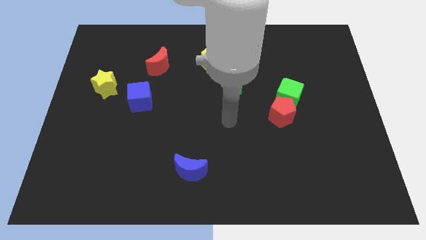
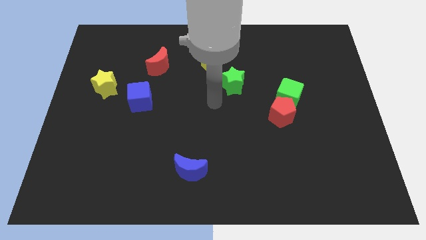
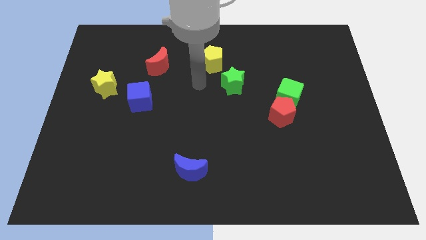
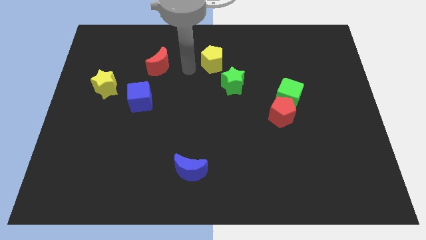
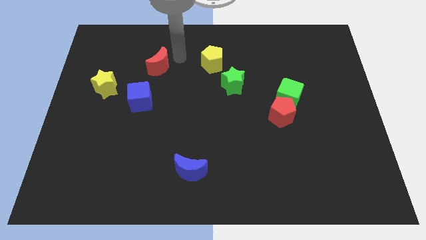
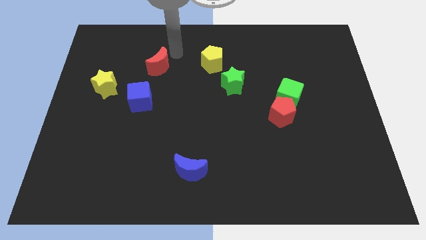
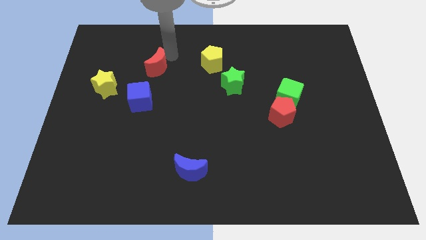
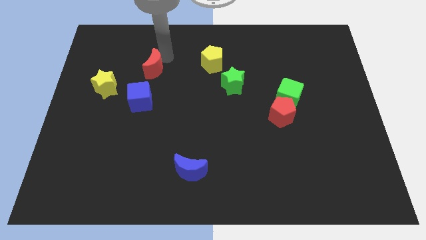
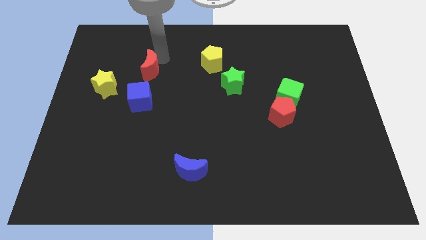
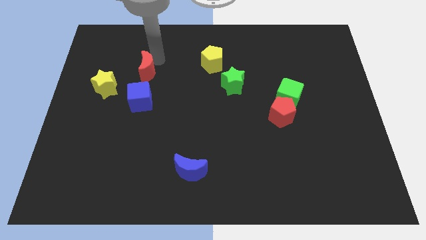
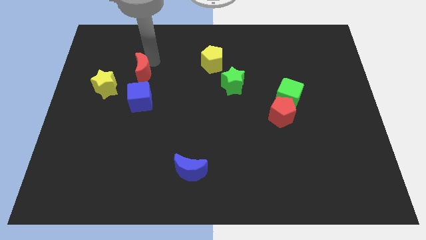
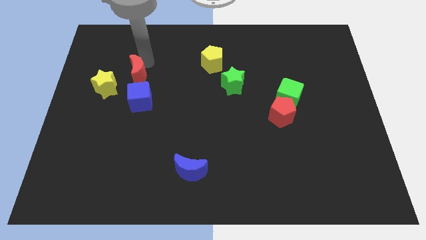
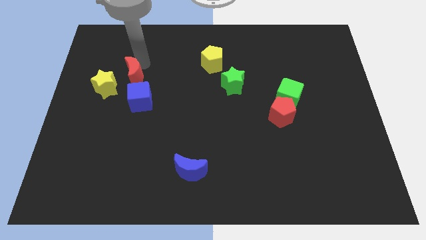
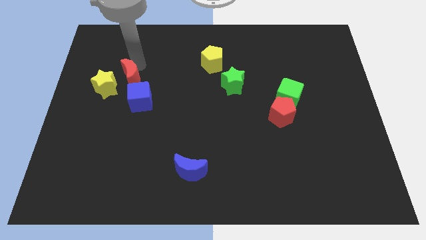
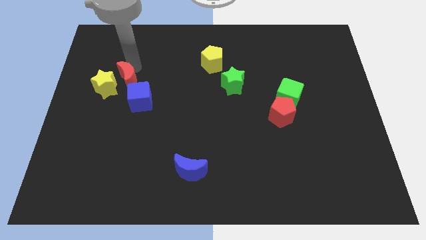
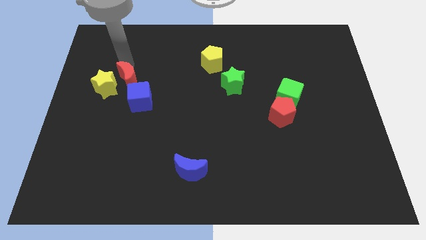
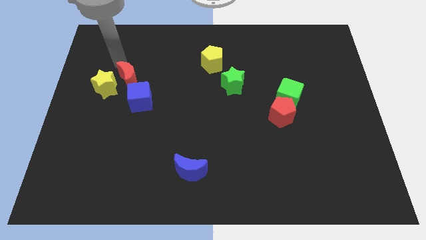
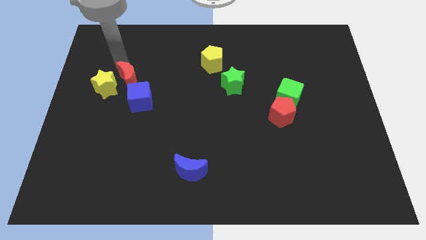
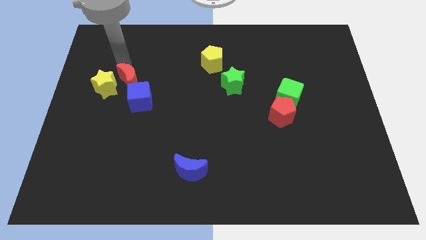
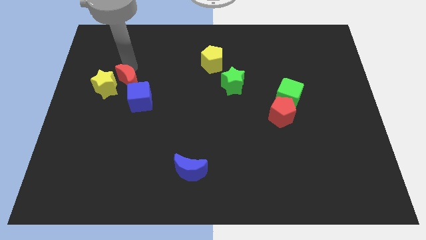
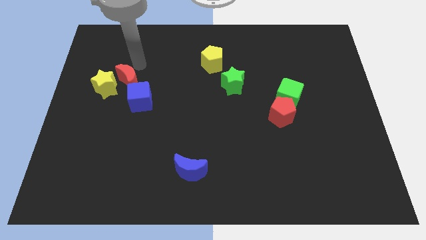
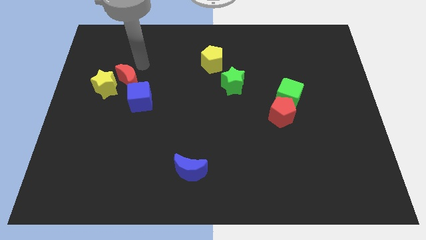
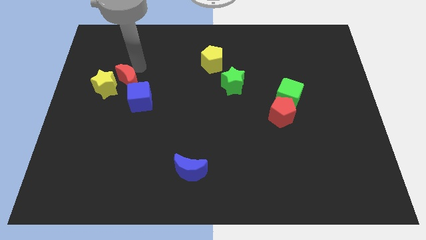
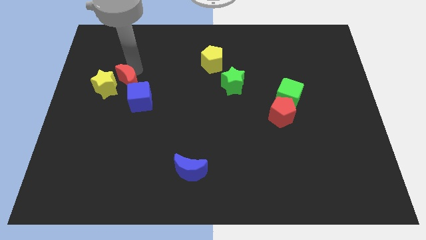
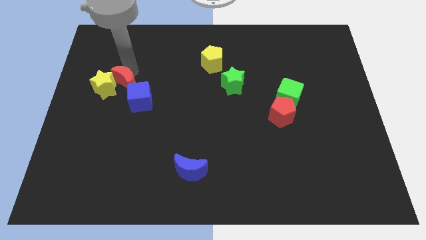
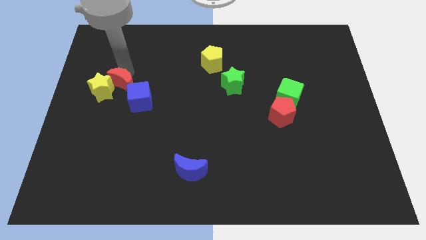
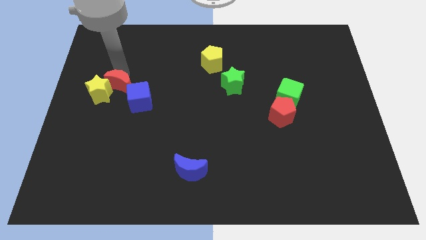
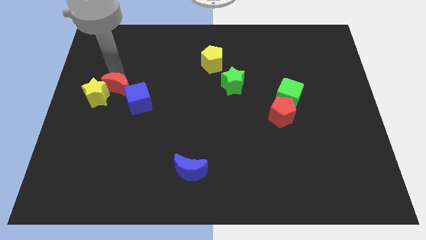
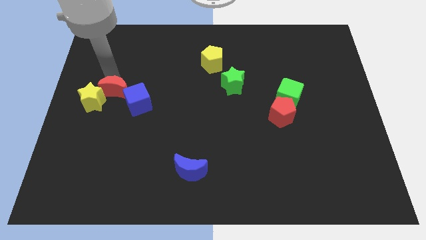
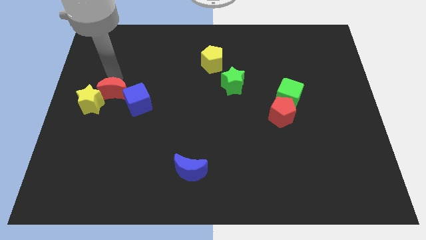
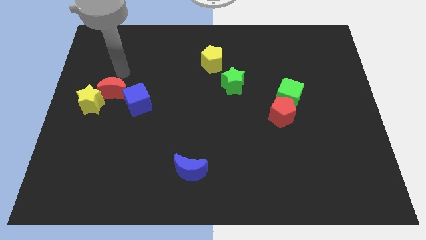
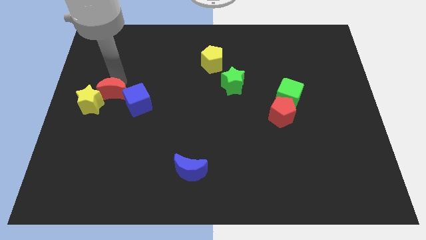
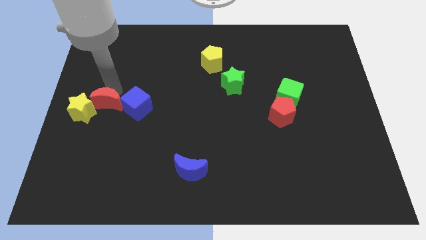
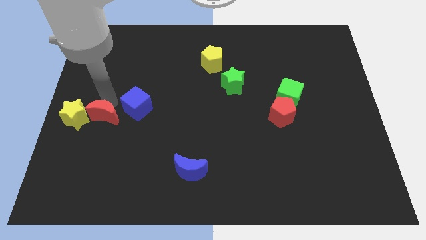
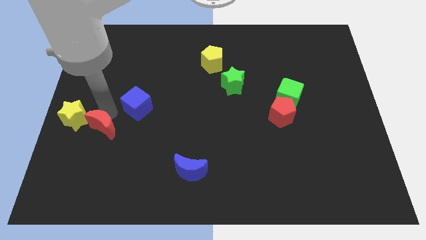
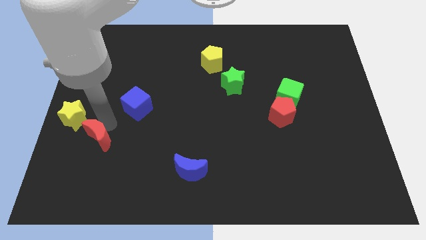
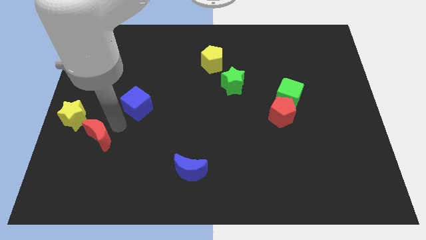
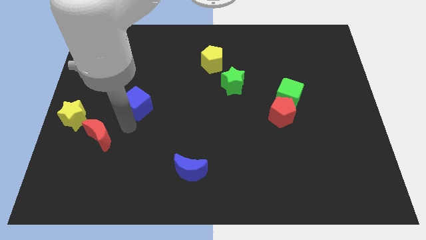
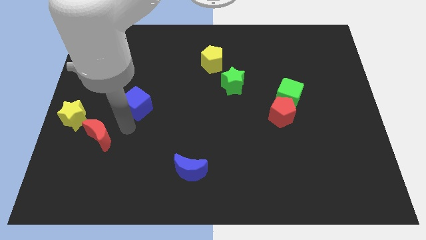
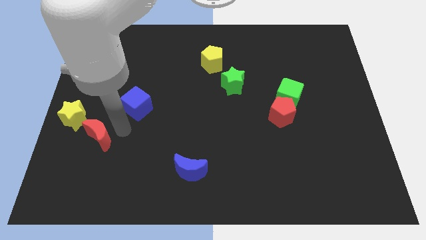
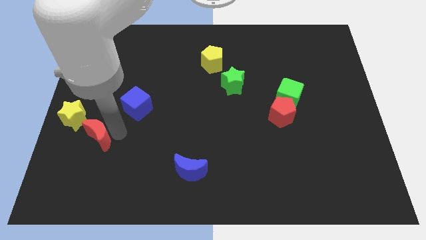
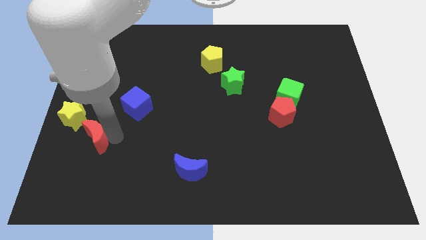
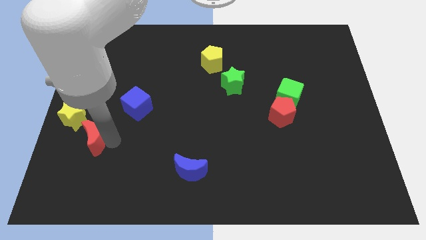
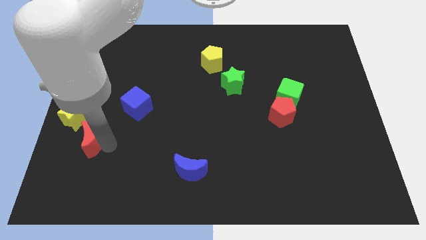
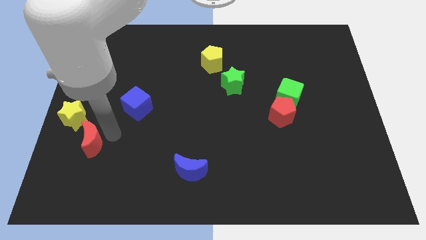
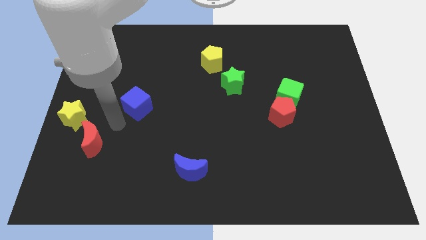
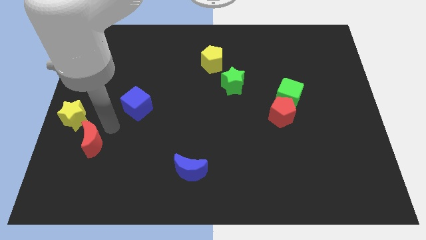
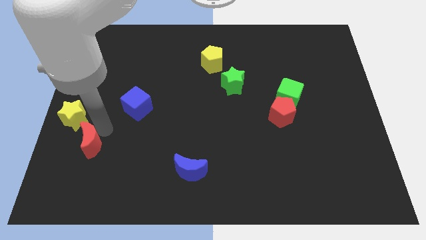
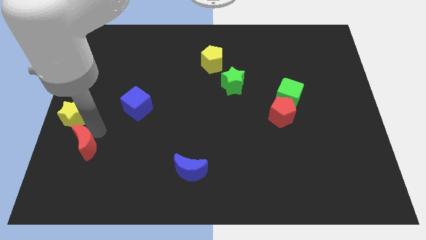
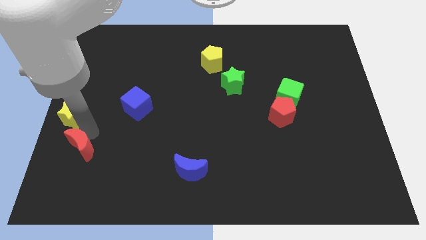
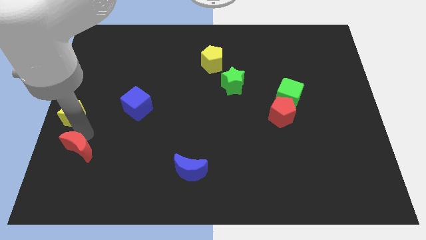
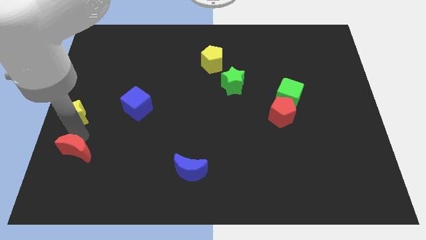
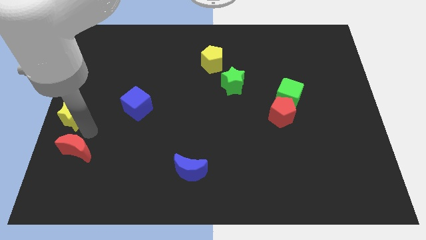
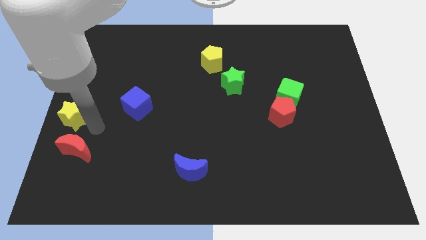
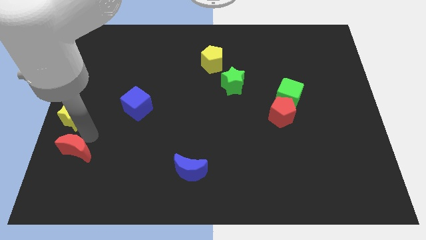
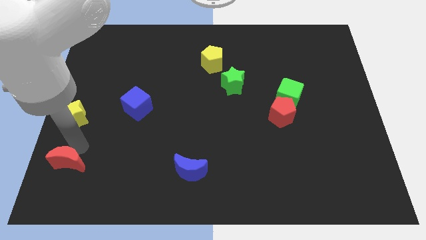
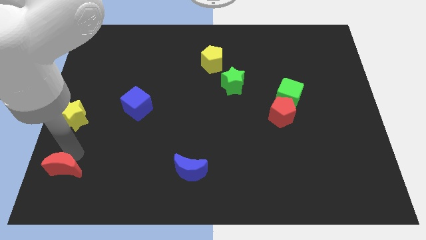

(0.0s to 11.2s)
push the red moon to the bottom left

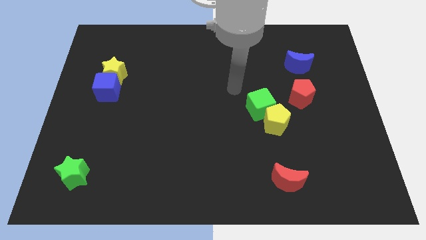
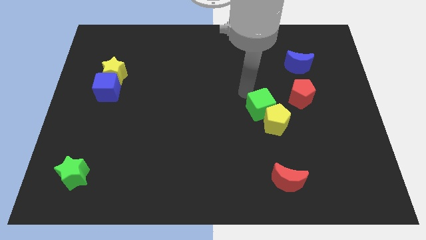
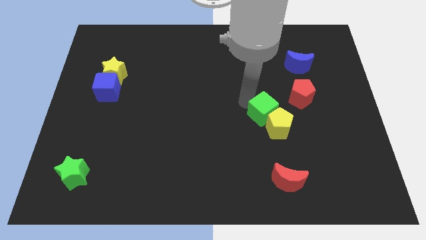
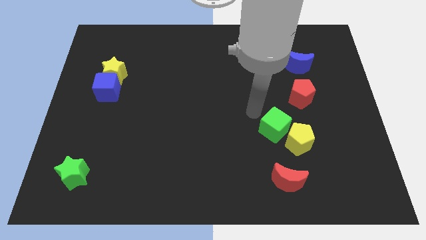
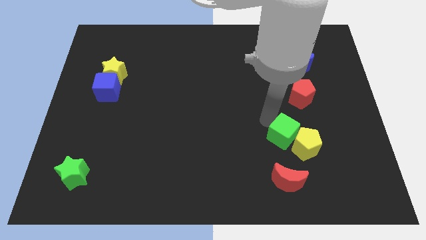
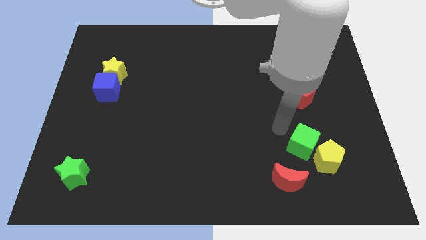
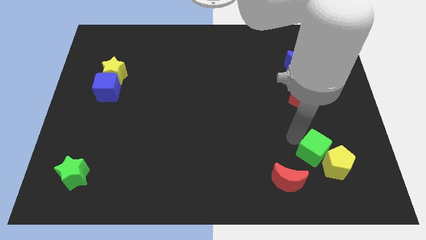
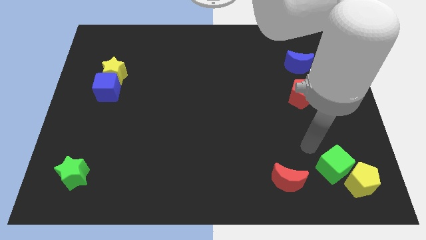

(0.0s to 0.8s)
put the yellow pentagon to the bottom right corner

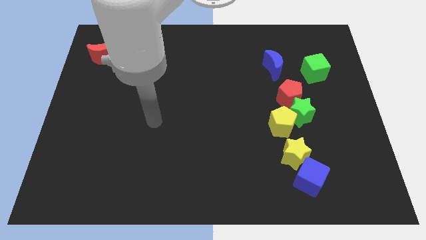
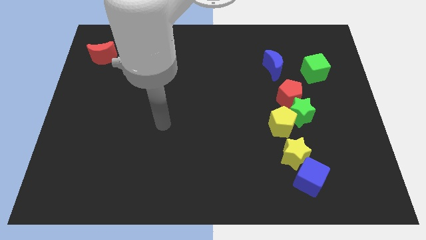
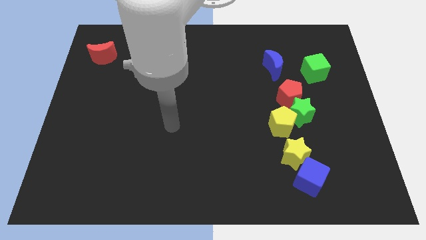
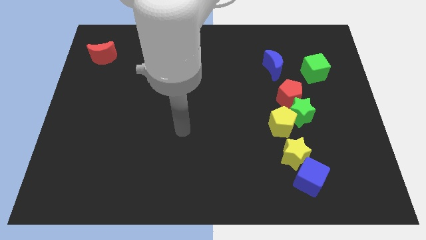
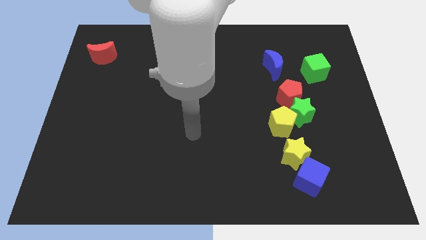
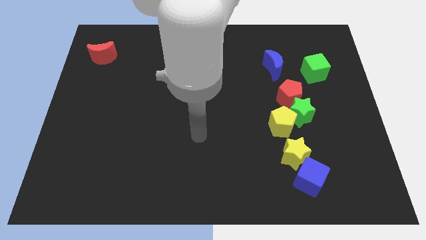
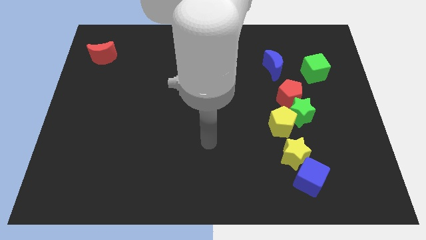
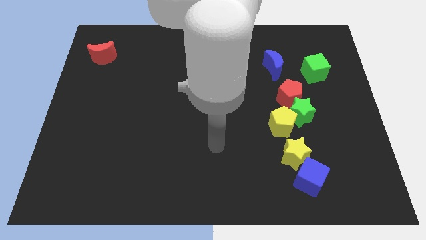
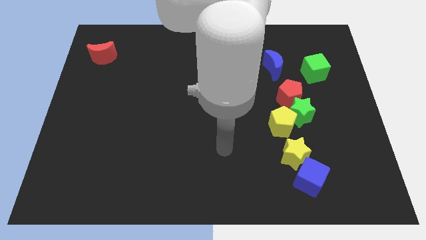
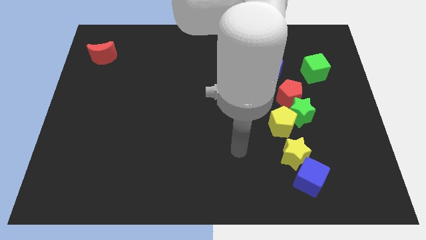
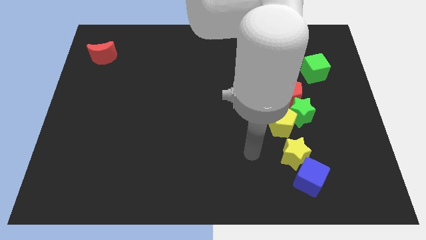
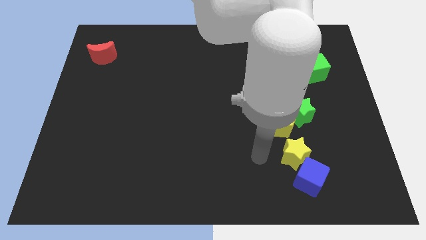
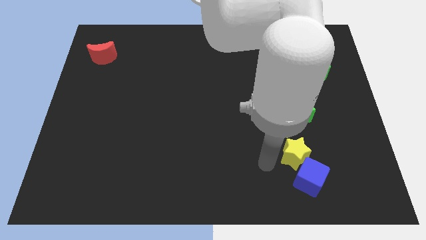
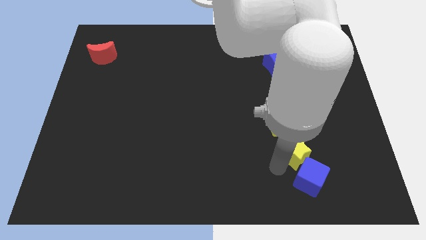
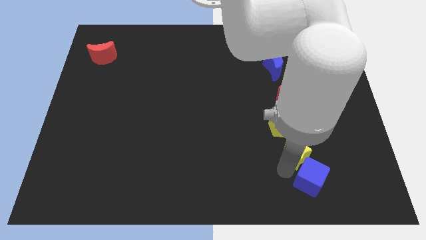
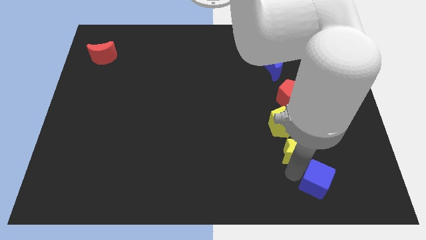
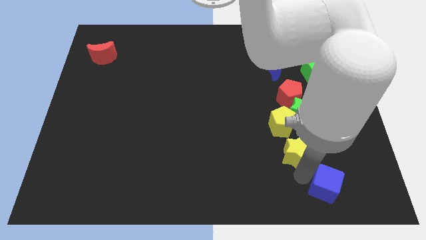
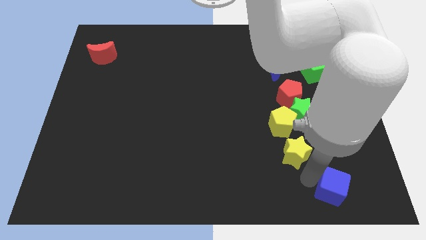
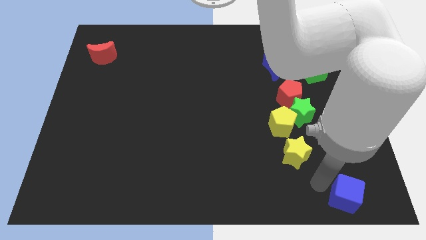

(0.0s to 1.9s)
move the blue cube to the bottom right corner
